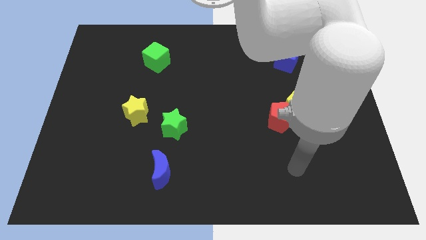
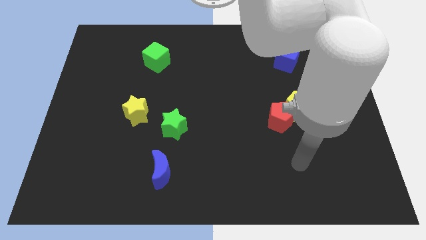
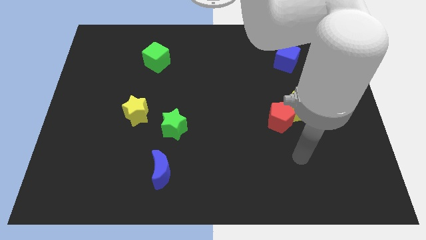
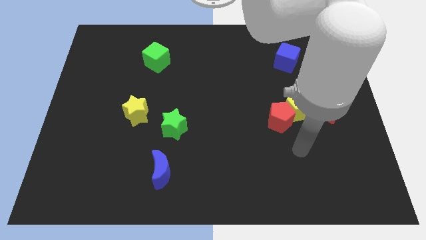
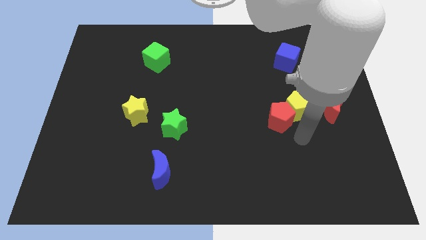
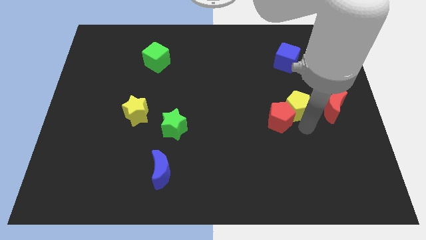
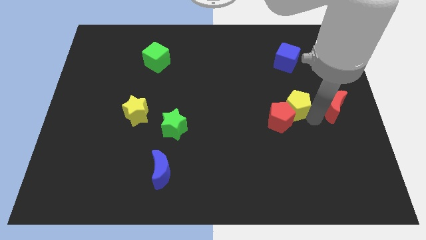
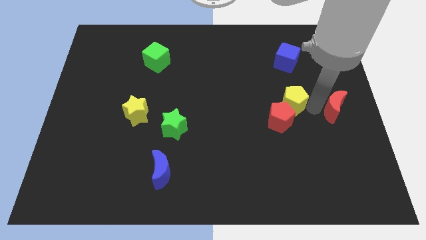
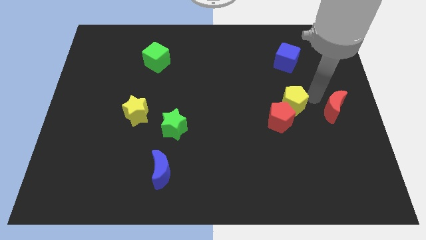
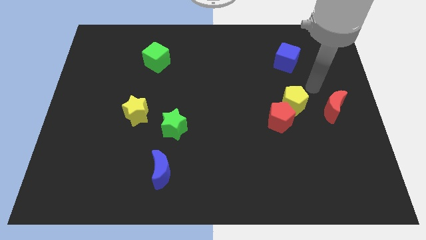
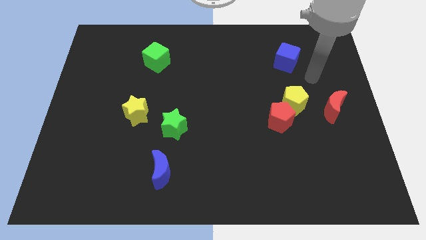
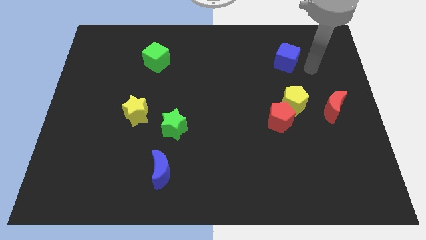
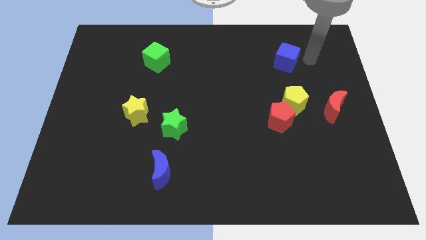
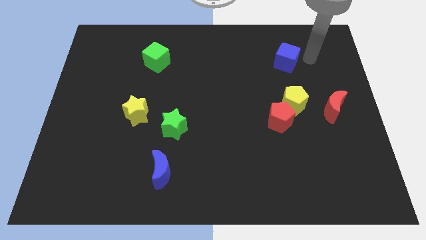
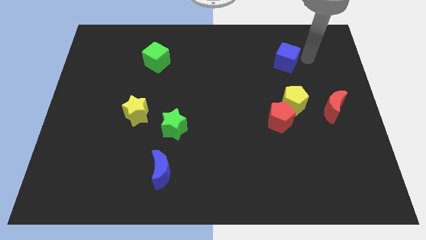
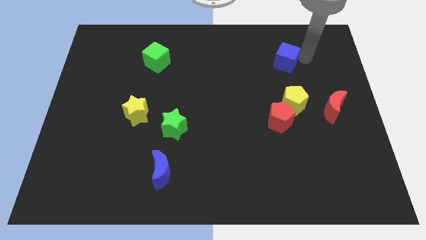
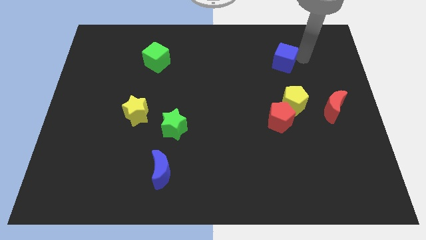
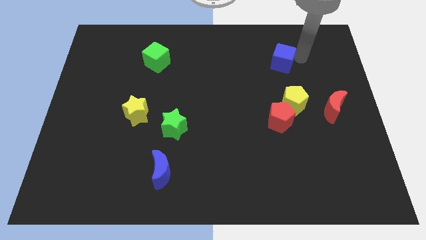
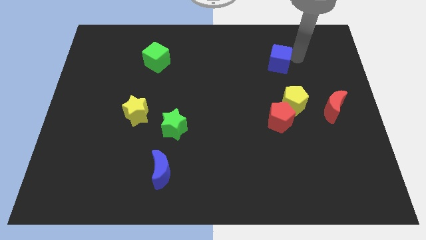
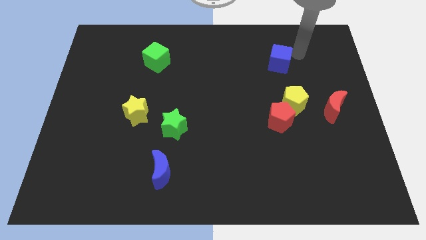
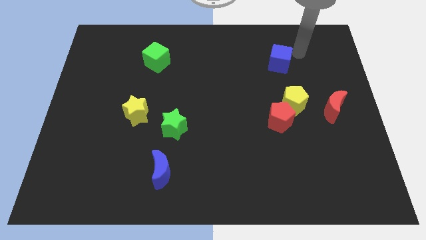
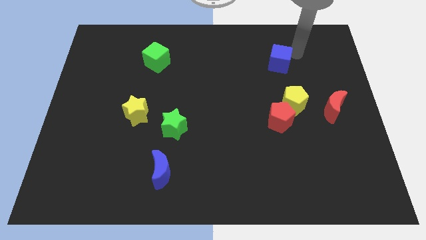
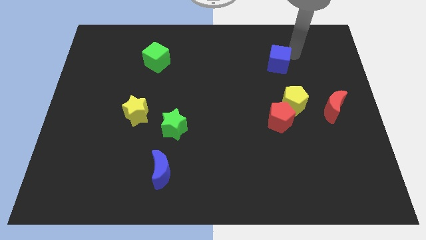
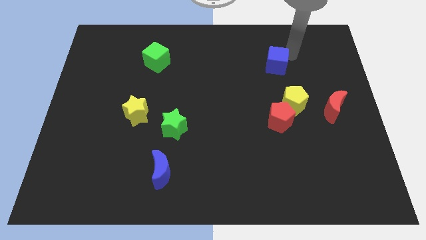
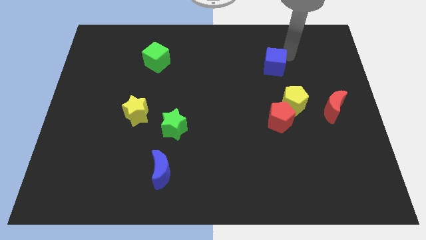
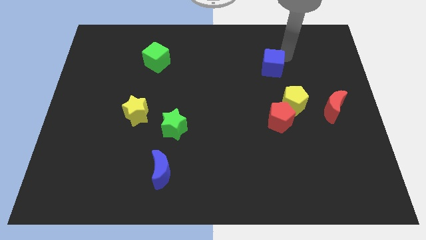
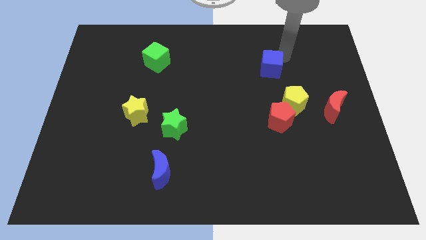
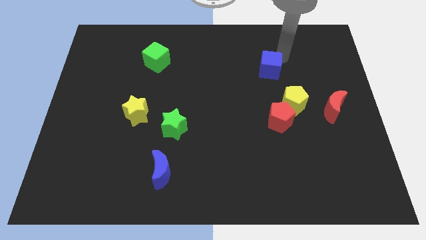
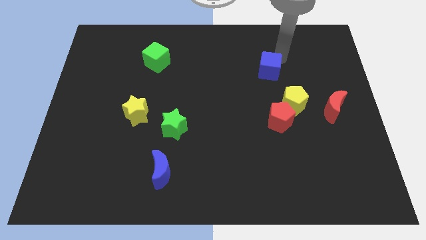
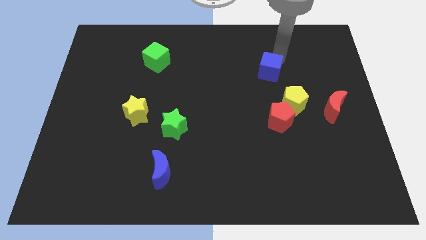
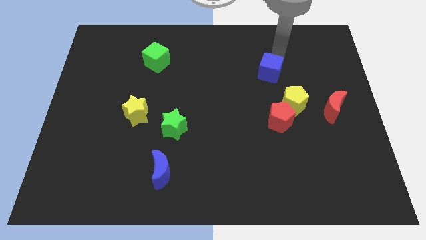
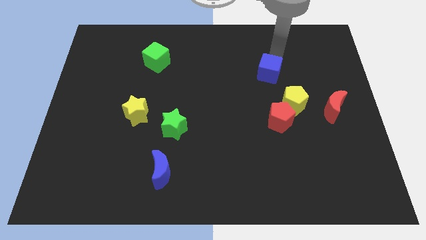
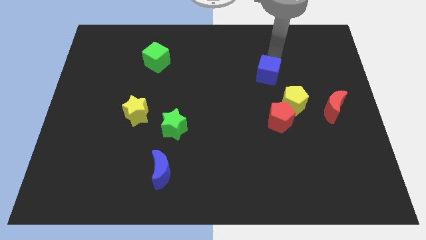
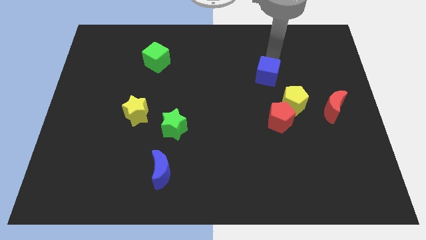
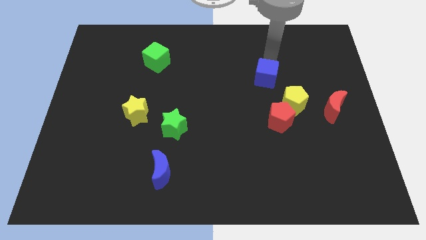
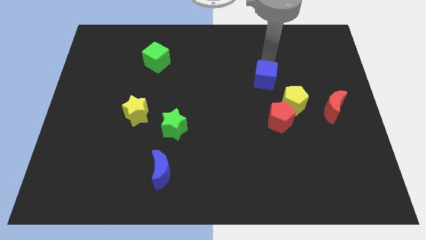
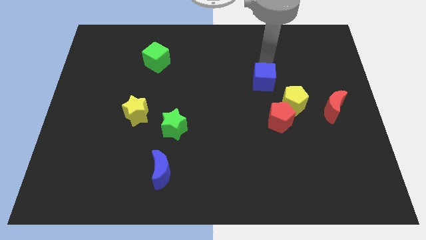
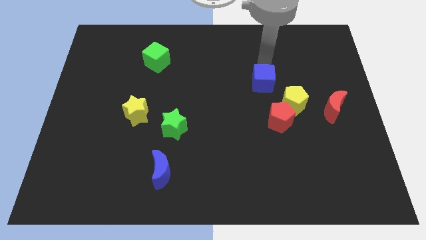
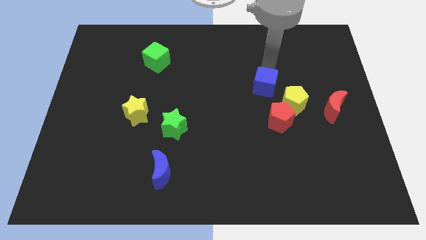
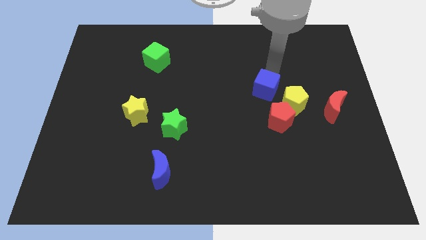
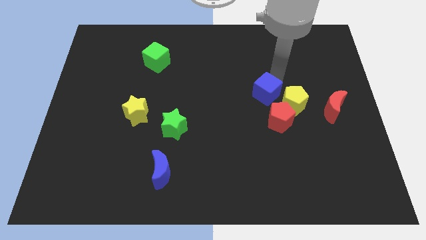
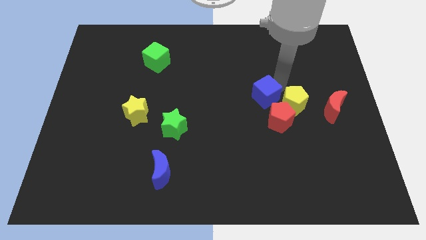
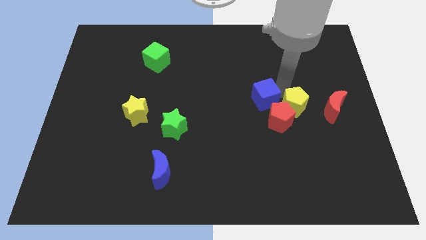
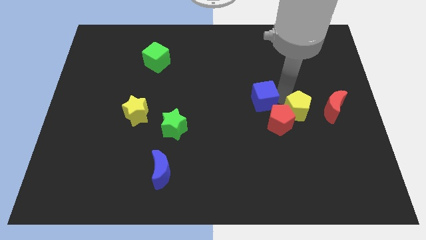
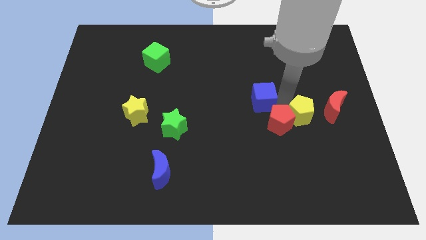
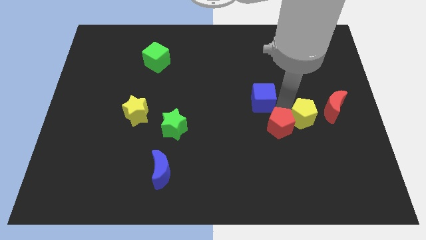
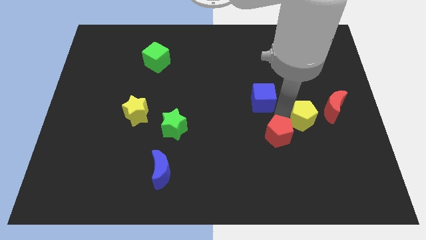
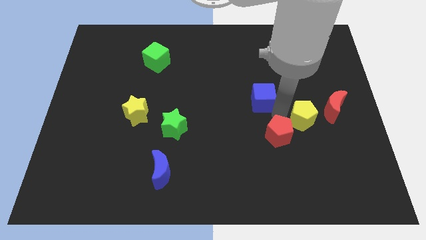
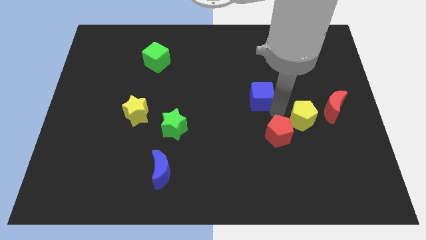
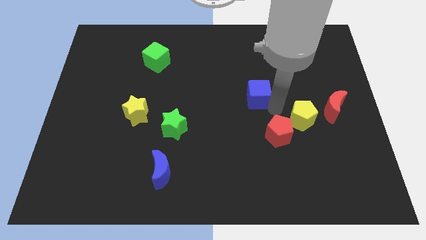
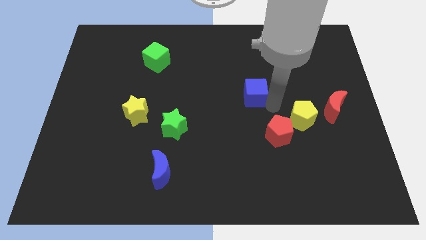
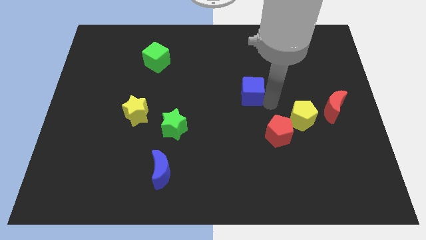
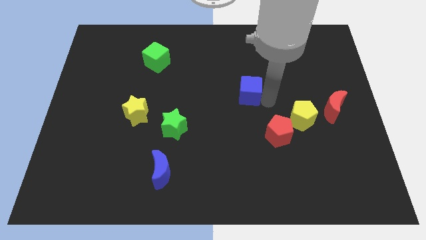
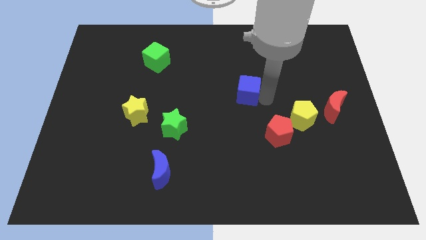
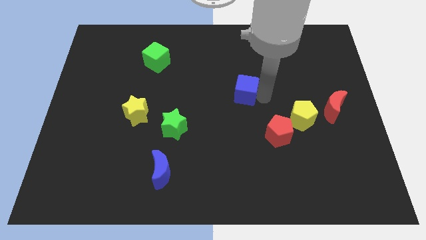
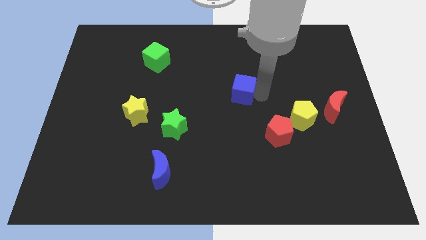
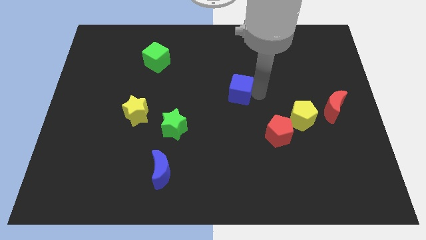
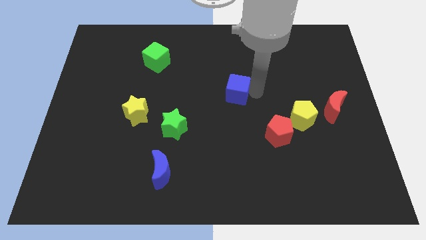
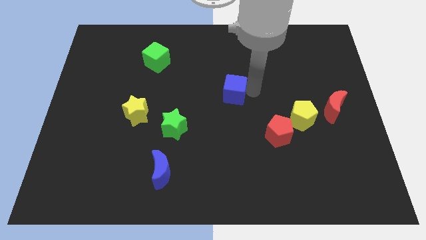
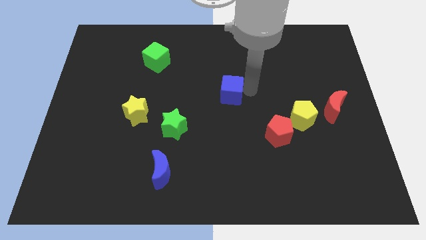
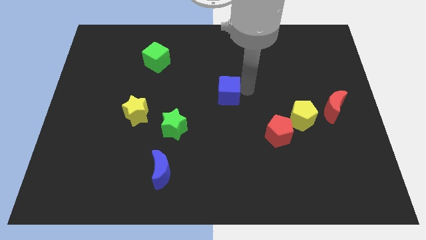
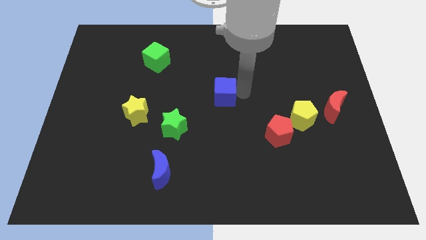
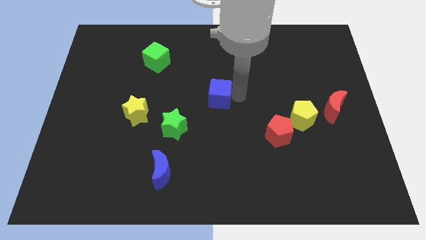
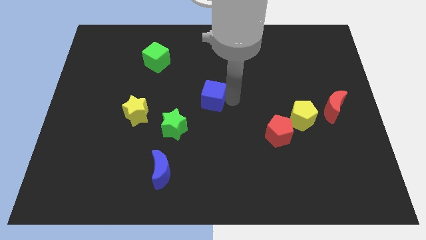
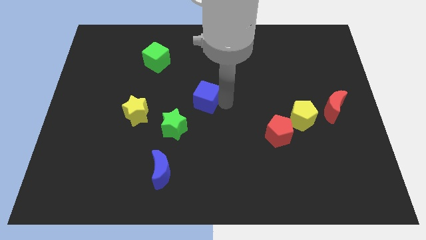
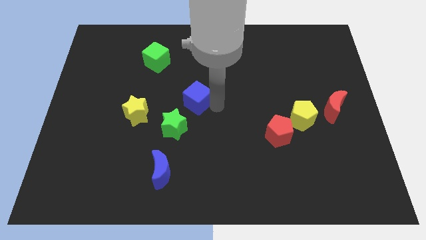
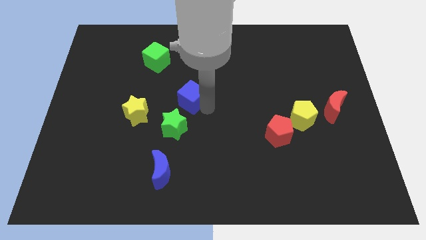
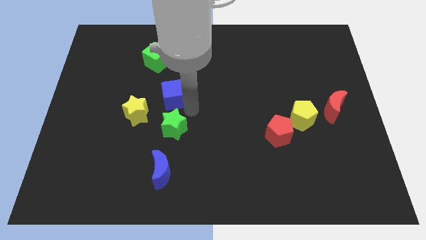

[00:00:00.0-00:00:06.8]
put the blue cube to the top right of the yellow star
